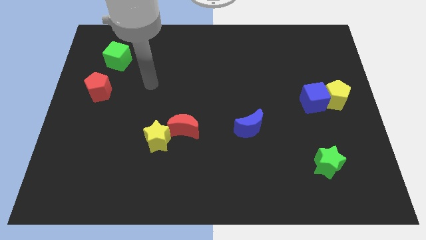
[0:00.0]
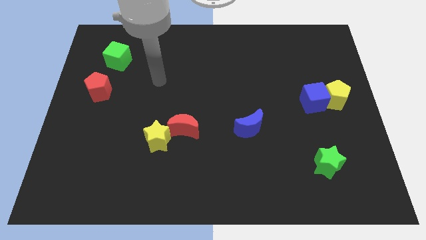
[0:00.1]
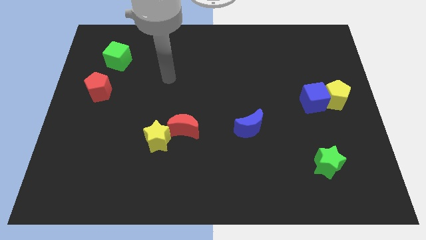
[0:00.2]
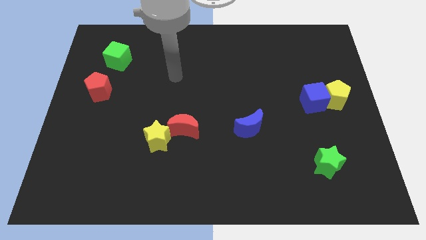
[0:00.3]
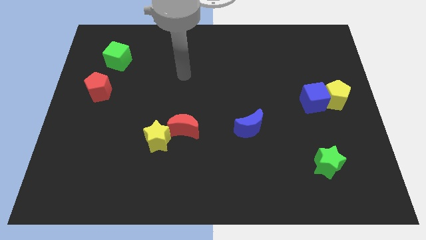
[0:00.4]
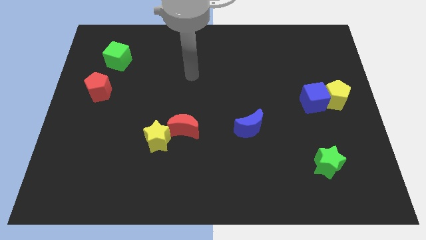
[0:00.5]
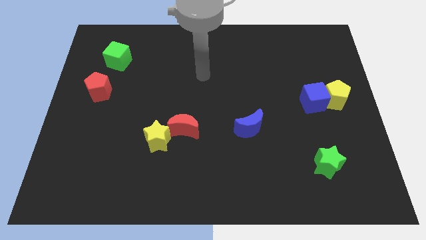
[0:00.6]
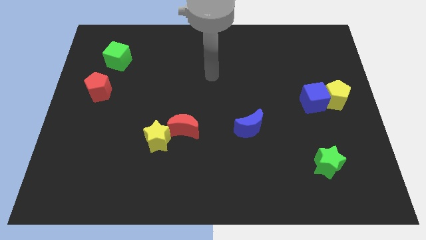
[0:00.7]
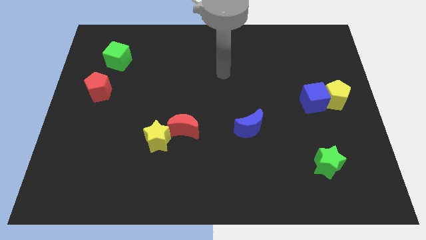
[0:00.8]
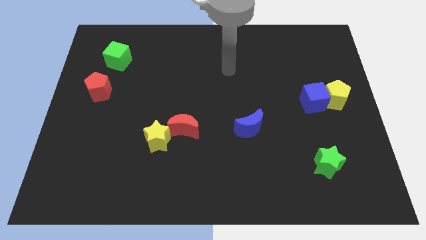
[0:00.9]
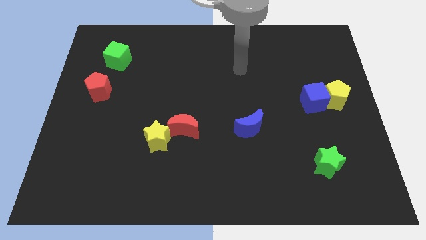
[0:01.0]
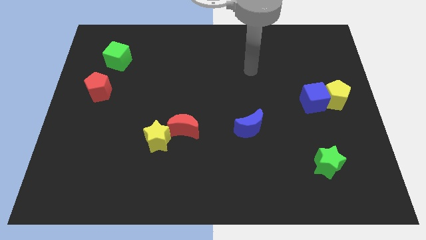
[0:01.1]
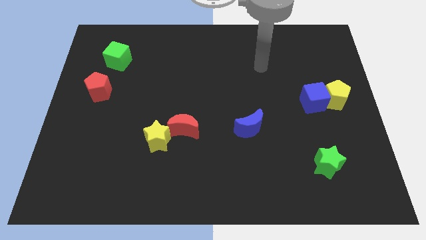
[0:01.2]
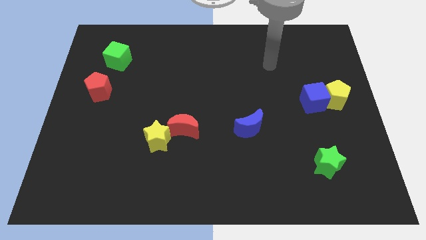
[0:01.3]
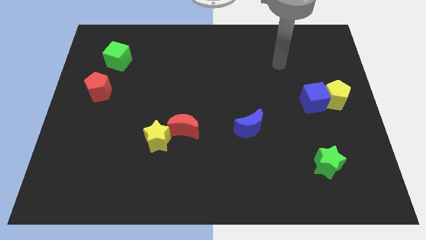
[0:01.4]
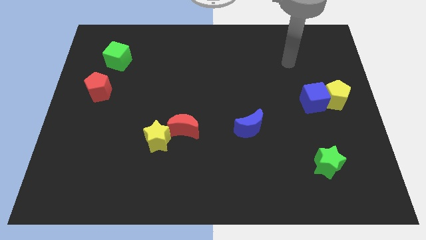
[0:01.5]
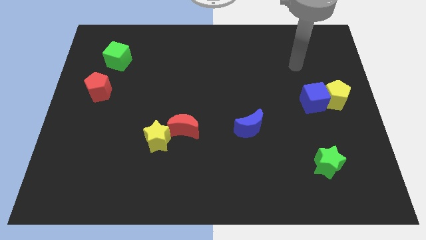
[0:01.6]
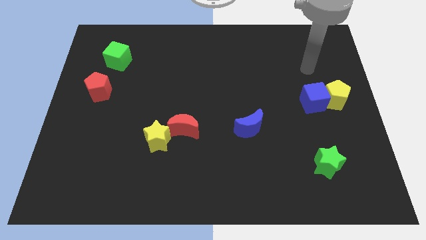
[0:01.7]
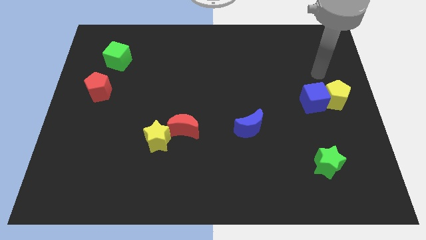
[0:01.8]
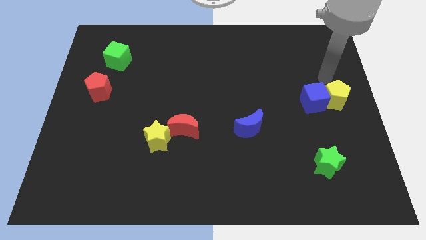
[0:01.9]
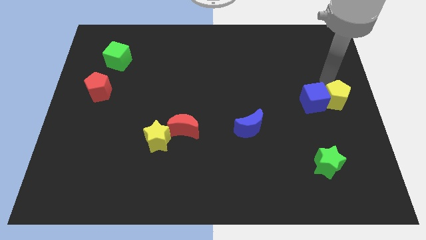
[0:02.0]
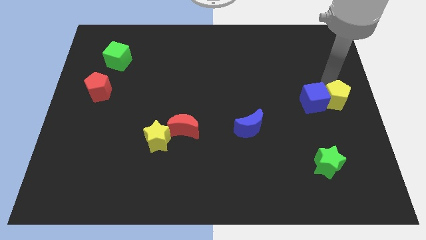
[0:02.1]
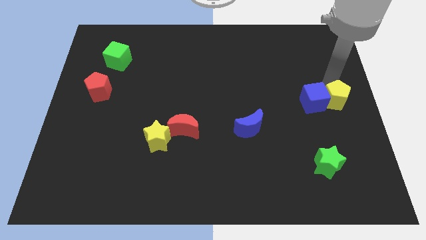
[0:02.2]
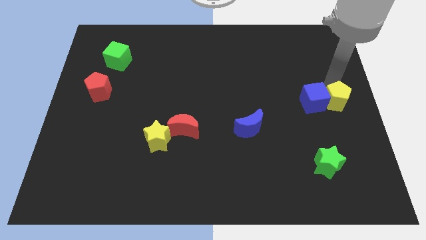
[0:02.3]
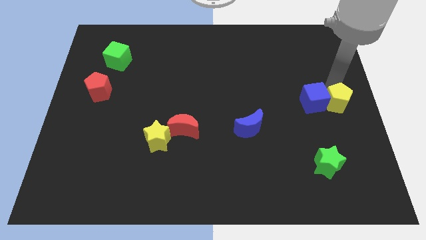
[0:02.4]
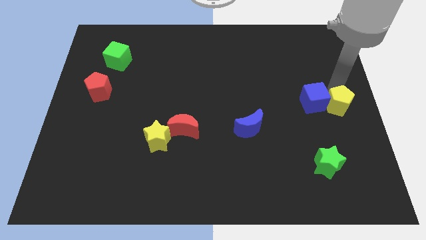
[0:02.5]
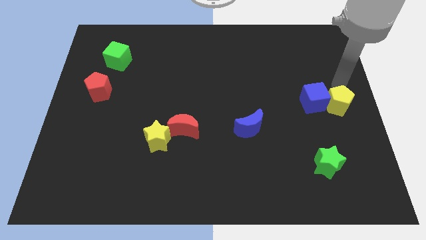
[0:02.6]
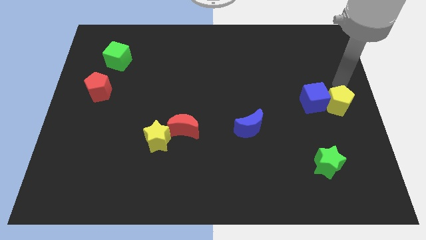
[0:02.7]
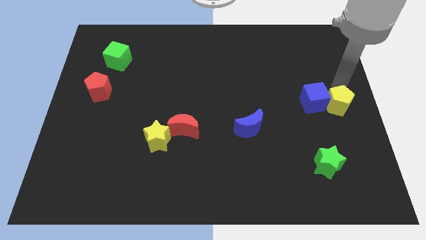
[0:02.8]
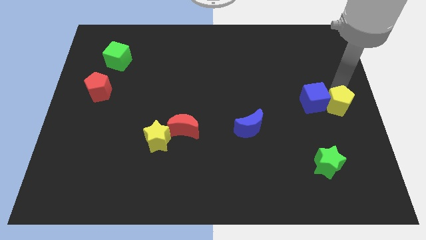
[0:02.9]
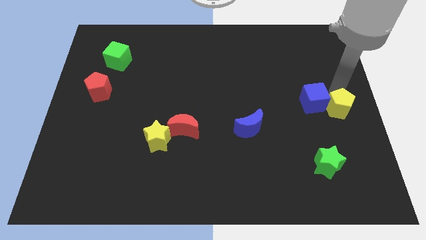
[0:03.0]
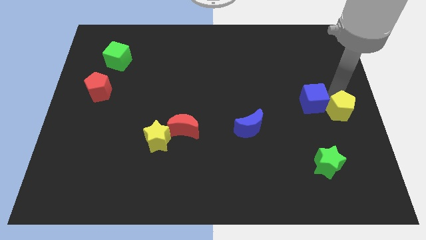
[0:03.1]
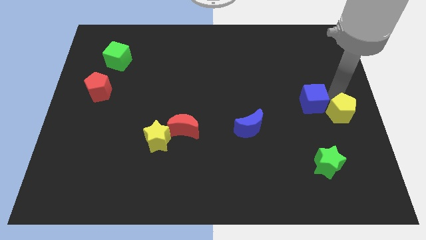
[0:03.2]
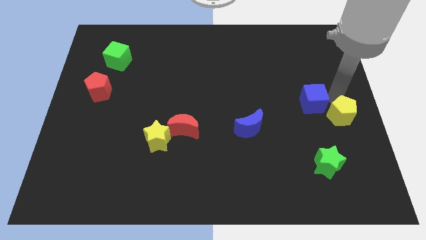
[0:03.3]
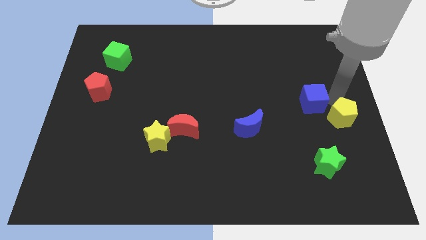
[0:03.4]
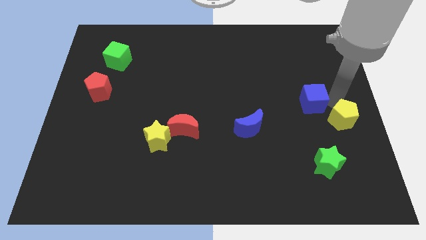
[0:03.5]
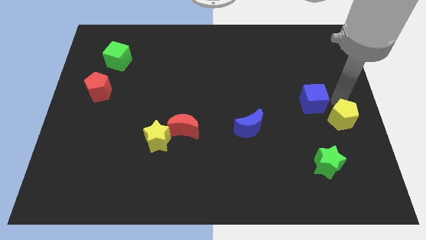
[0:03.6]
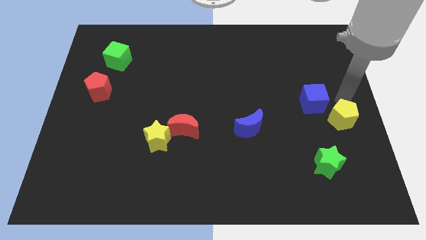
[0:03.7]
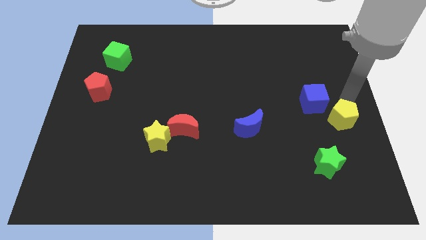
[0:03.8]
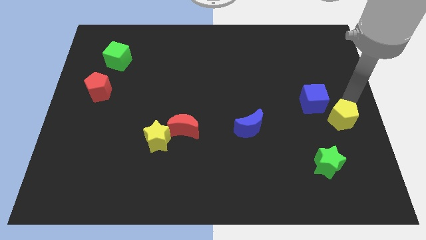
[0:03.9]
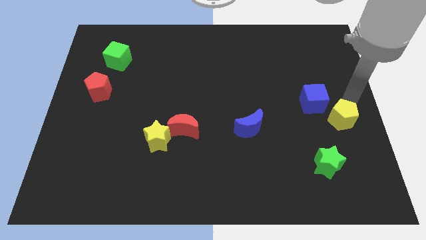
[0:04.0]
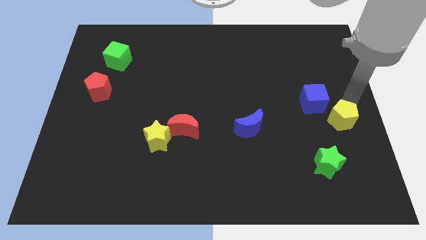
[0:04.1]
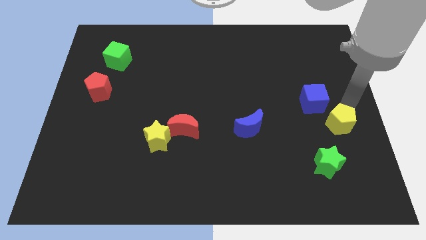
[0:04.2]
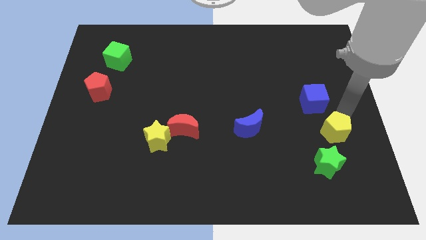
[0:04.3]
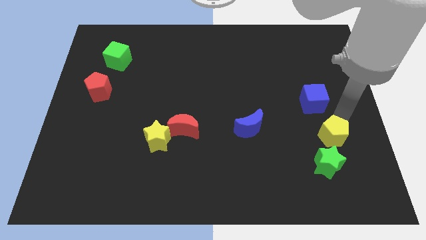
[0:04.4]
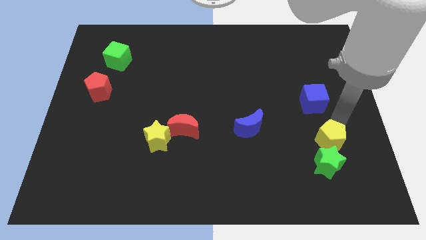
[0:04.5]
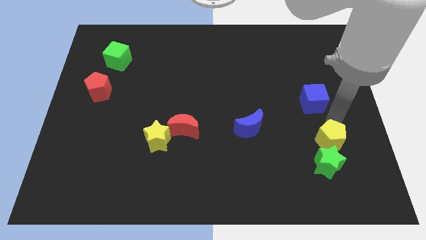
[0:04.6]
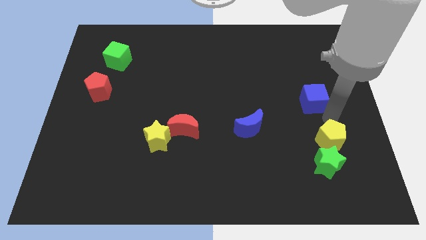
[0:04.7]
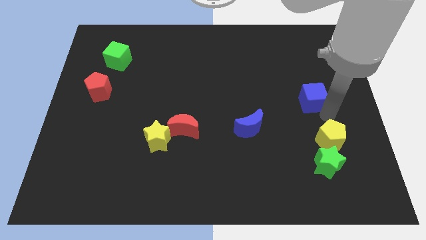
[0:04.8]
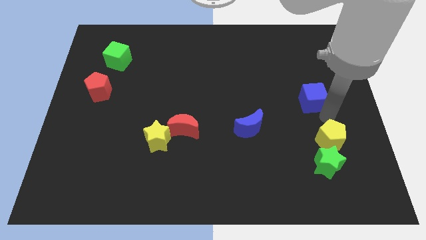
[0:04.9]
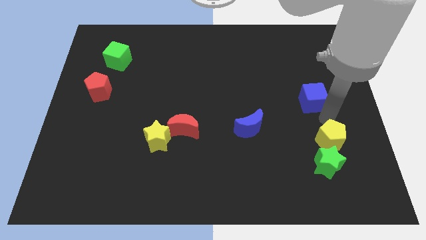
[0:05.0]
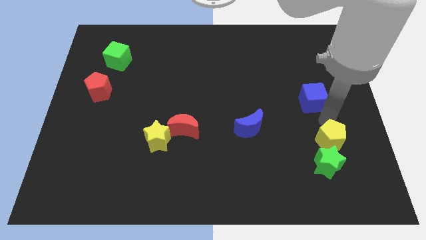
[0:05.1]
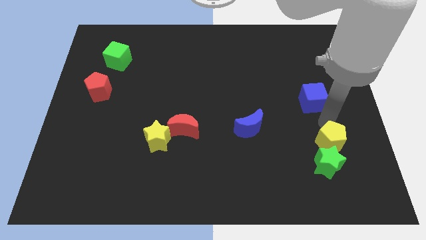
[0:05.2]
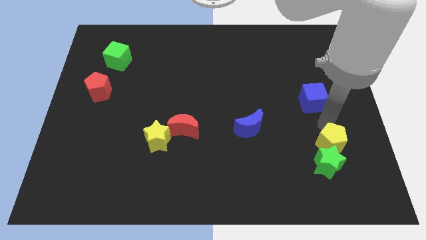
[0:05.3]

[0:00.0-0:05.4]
put the yellow pentagon towards the green star

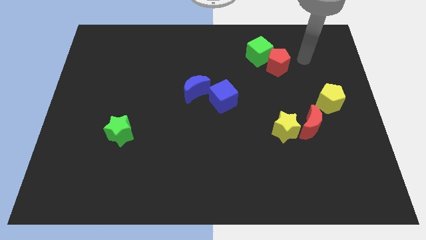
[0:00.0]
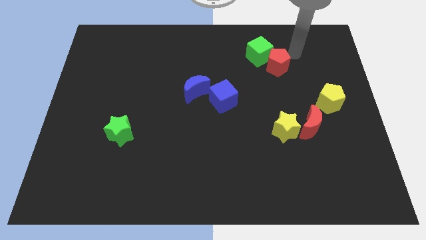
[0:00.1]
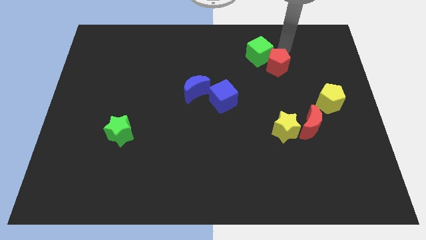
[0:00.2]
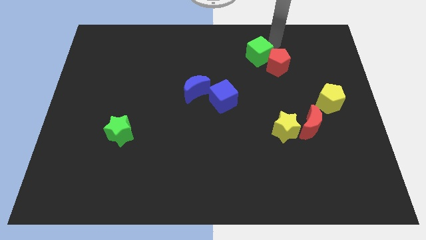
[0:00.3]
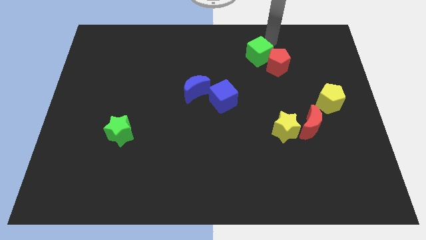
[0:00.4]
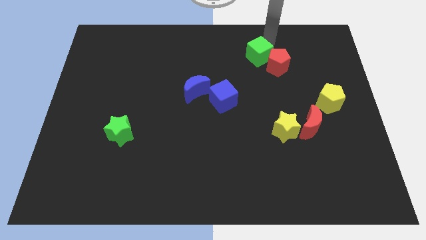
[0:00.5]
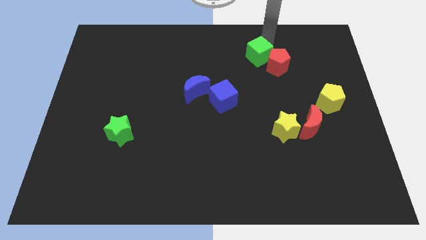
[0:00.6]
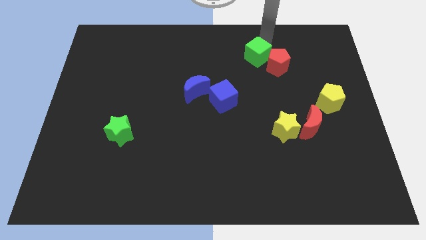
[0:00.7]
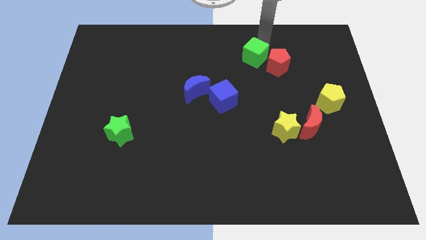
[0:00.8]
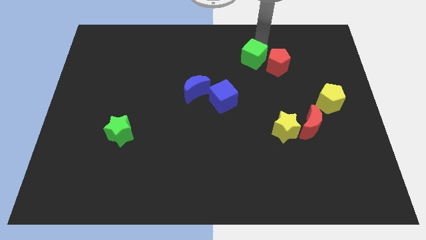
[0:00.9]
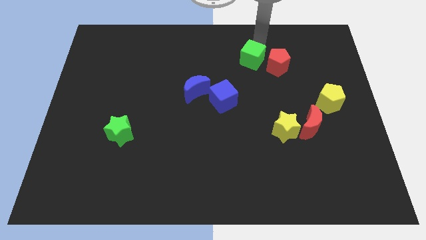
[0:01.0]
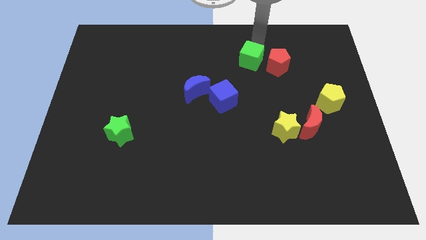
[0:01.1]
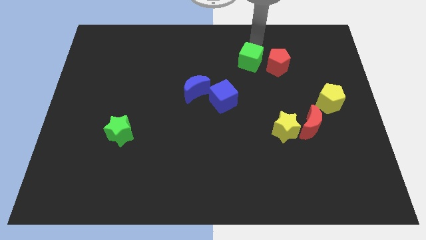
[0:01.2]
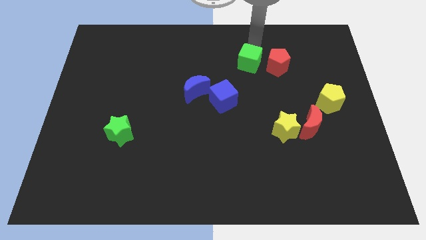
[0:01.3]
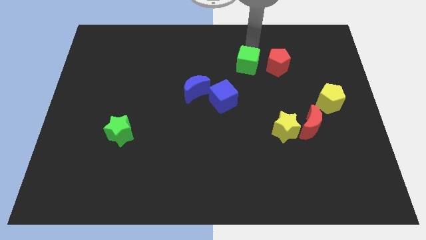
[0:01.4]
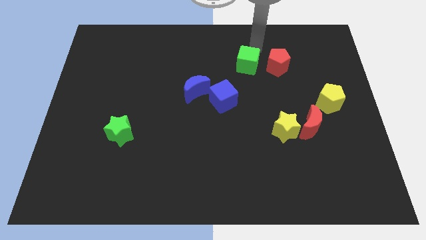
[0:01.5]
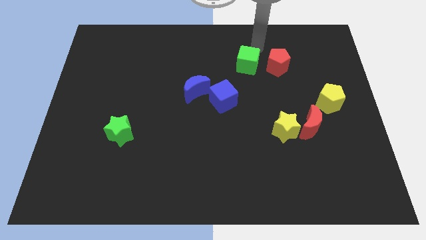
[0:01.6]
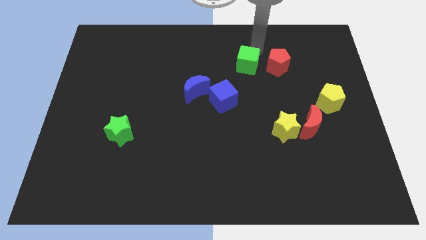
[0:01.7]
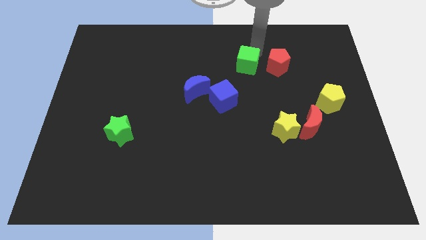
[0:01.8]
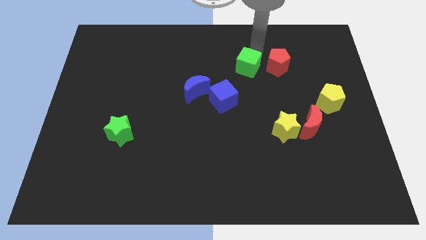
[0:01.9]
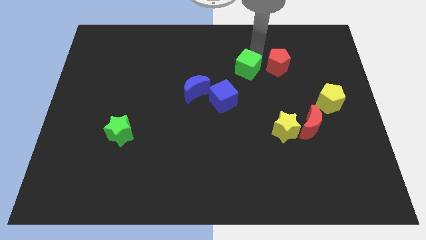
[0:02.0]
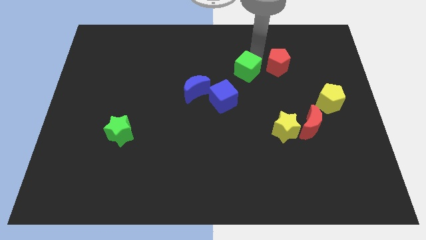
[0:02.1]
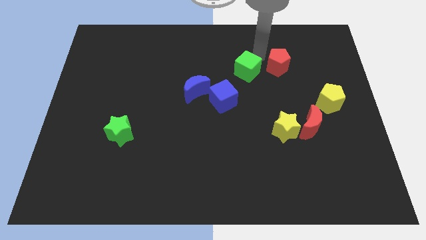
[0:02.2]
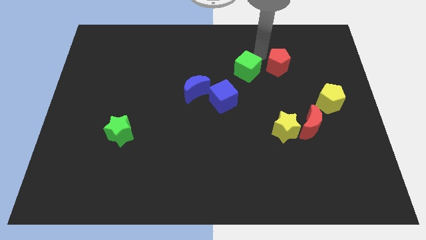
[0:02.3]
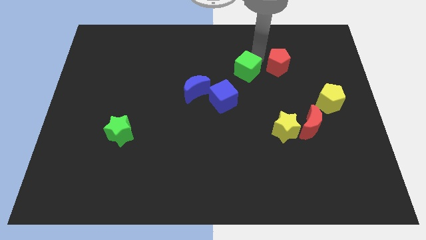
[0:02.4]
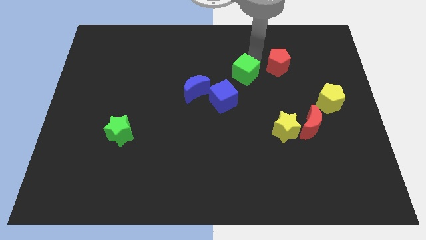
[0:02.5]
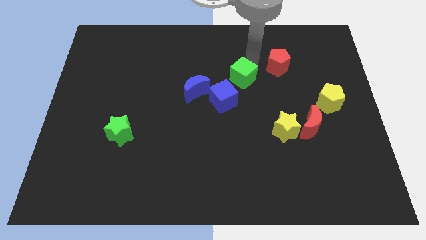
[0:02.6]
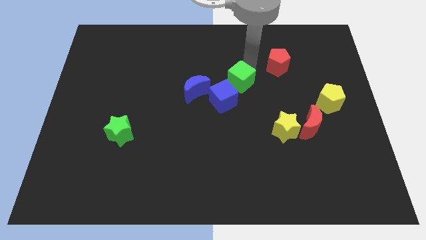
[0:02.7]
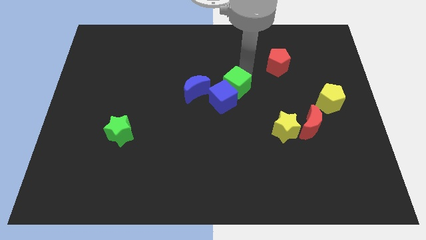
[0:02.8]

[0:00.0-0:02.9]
move the green cube close to the blue cube
